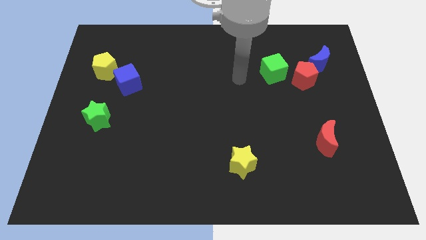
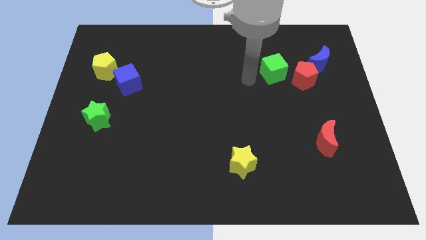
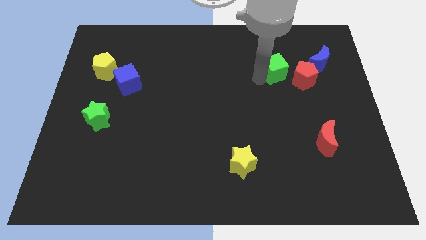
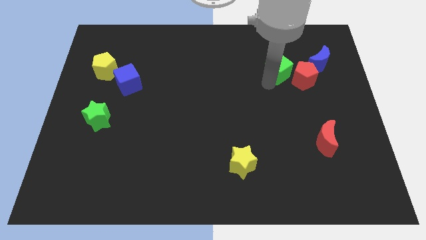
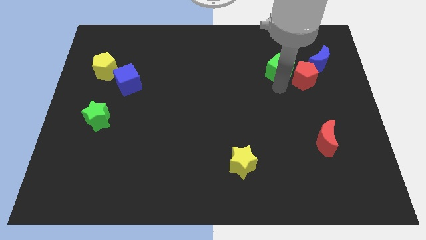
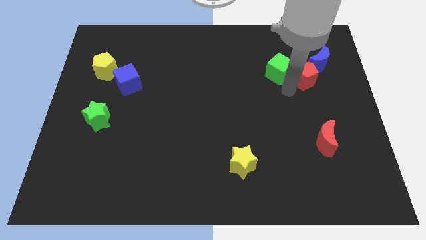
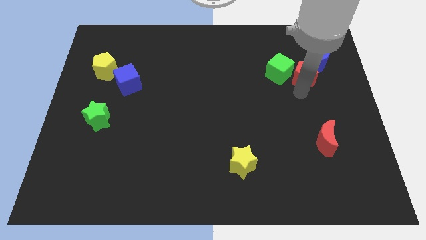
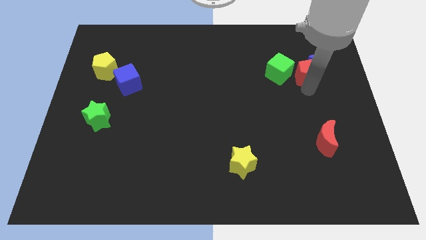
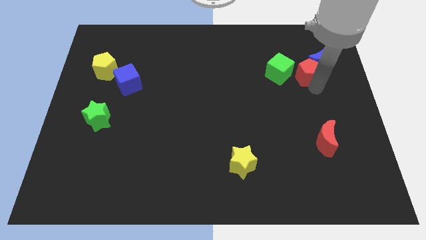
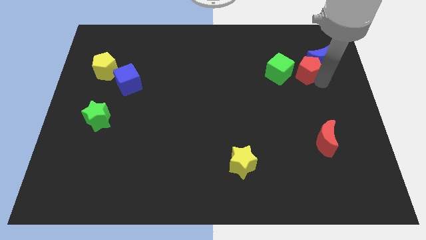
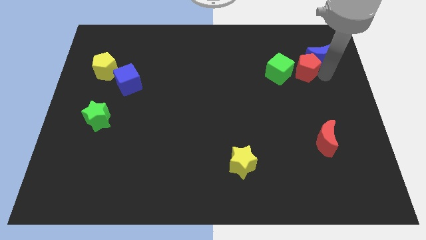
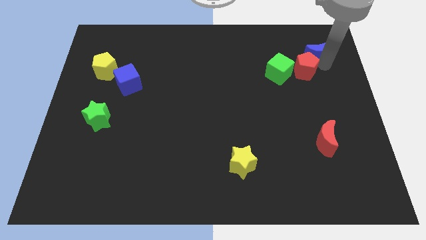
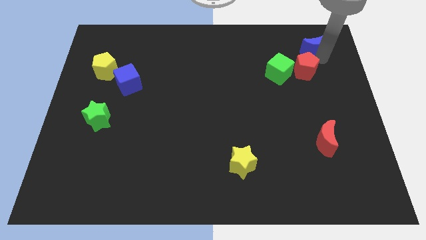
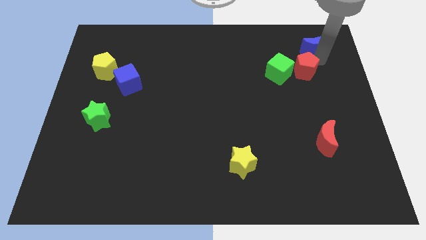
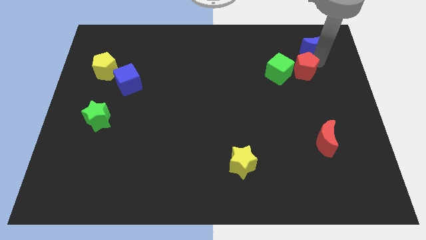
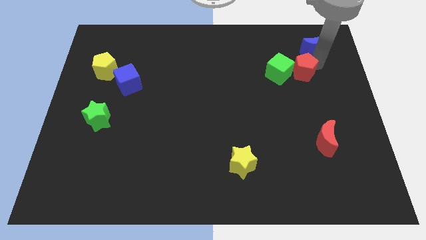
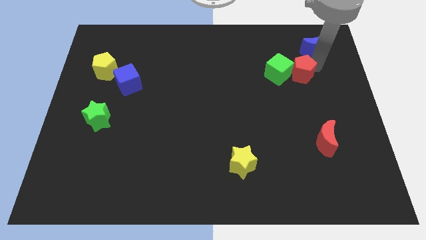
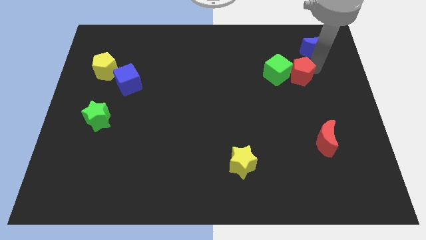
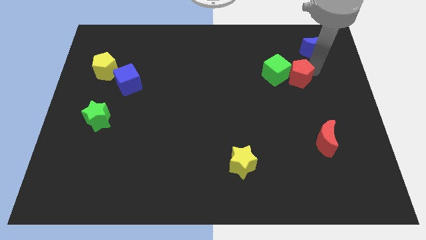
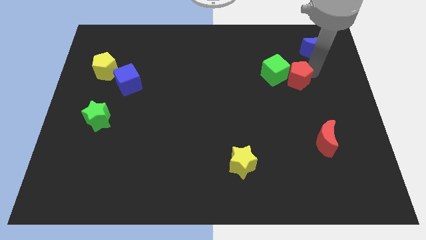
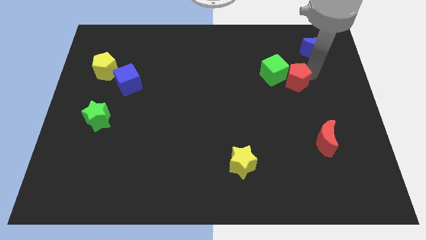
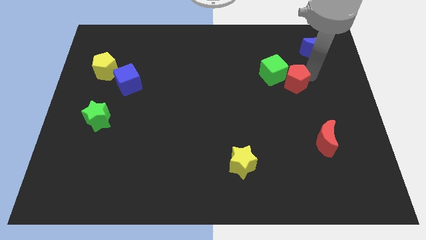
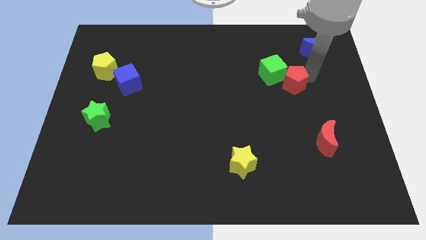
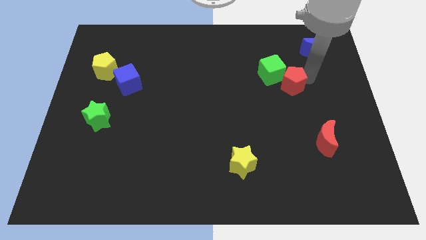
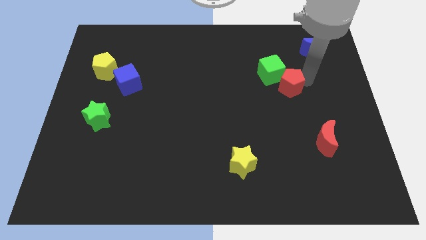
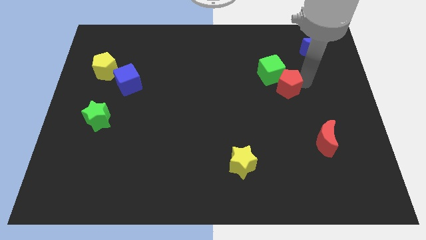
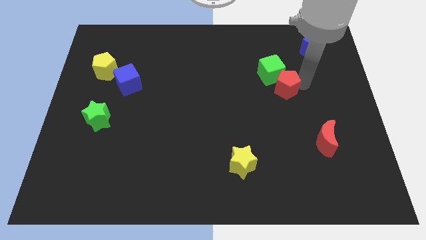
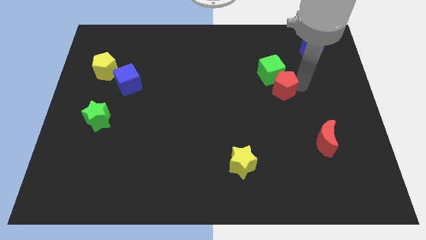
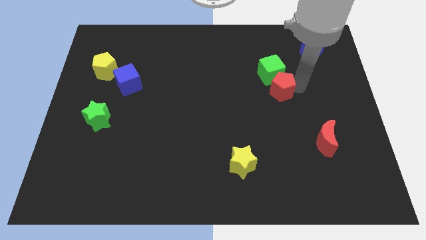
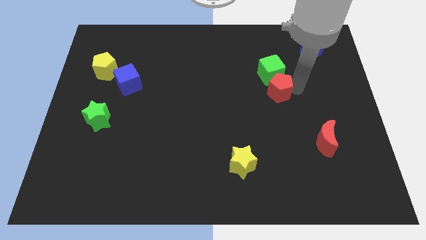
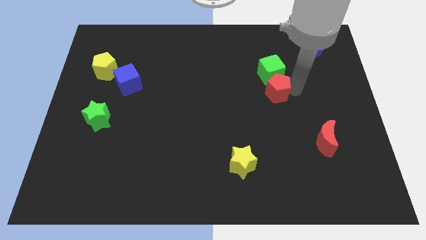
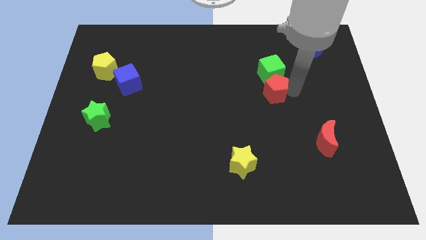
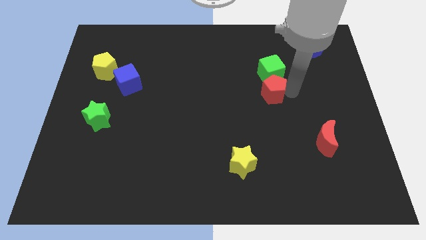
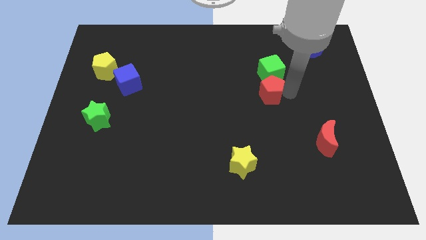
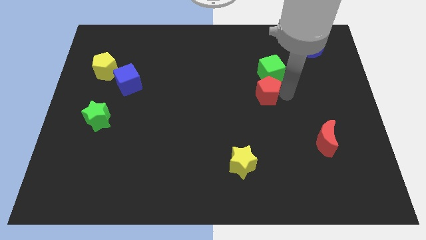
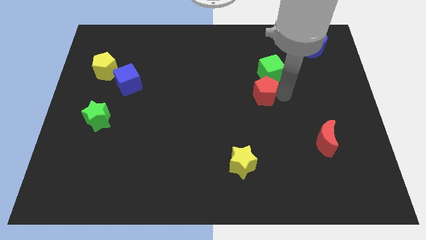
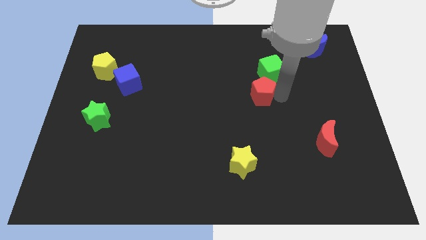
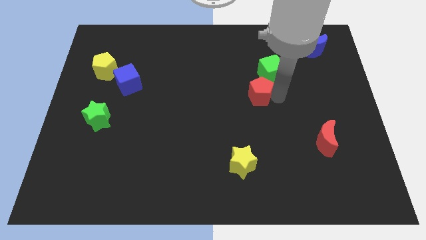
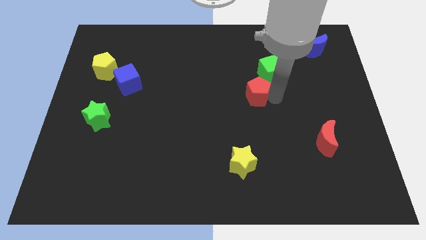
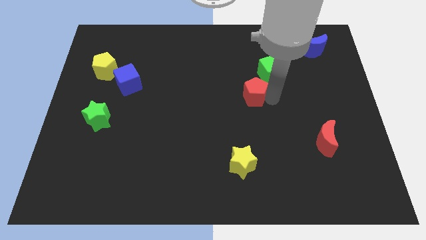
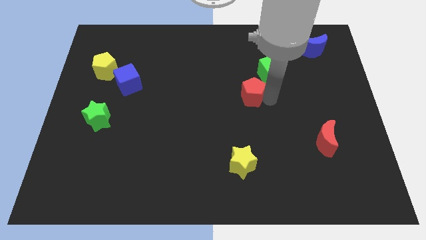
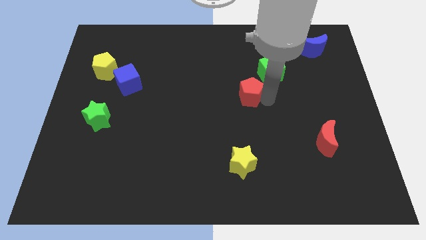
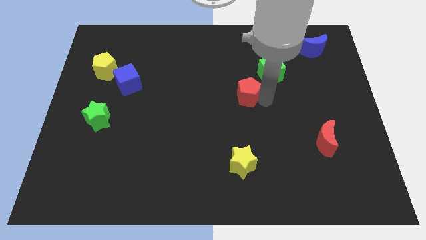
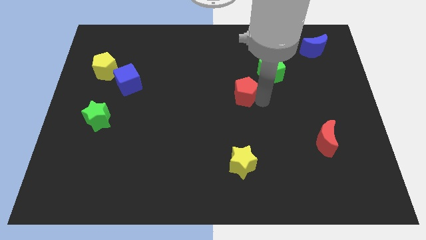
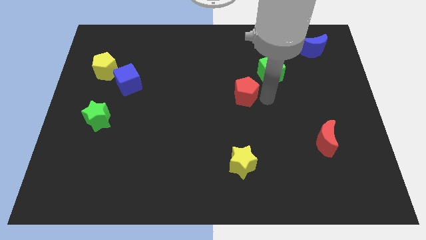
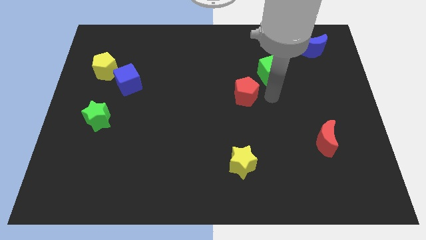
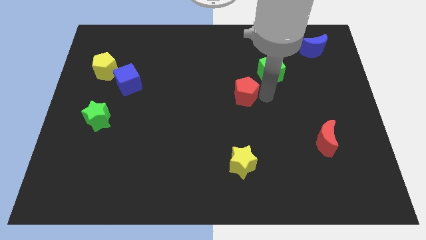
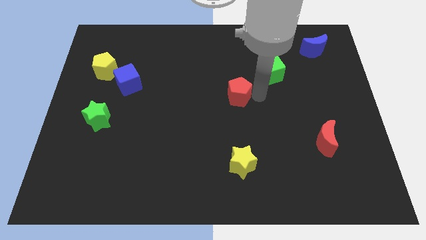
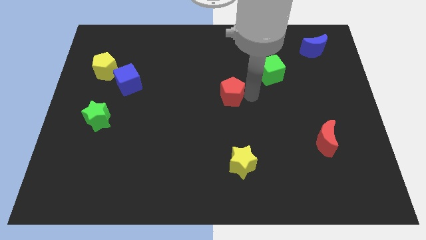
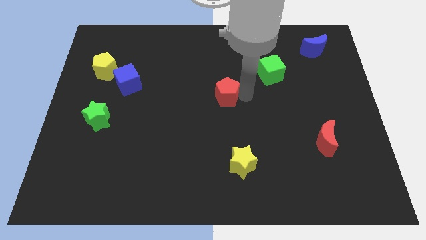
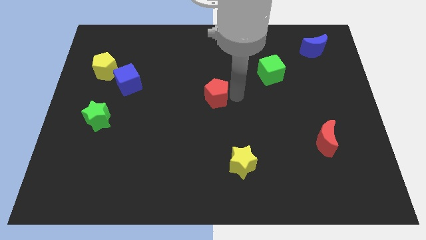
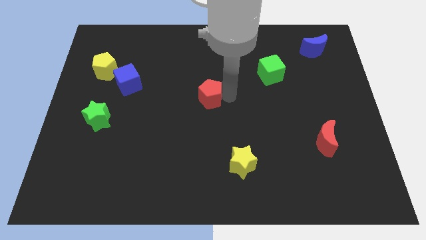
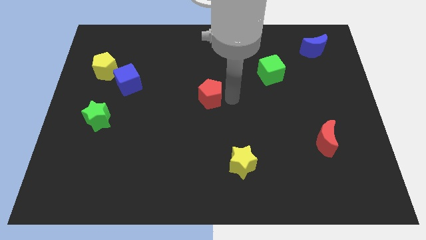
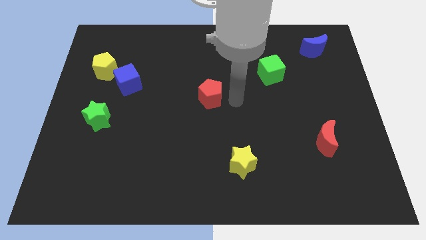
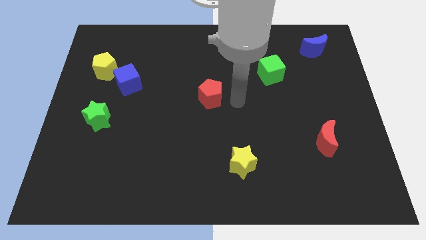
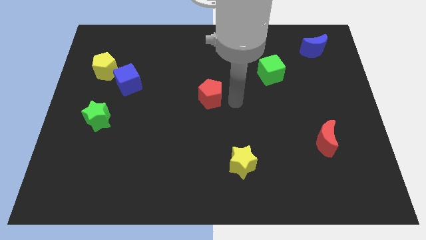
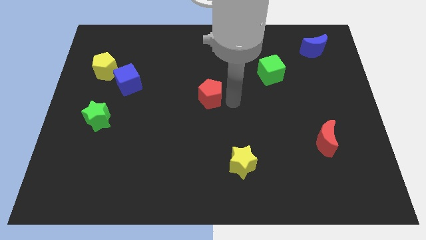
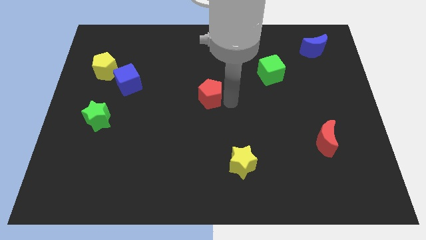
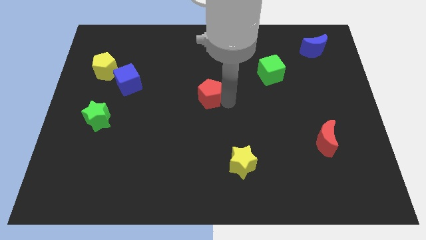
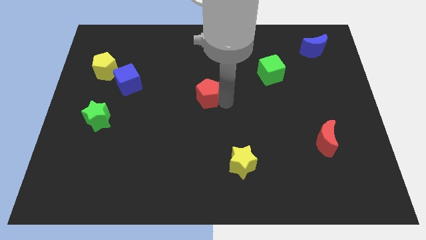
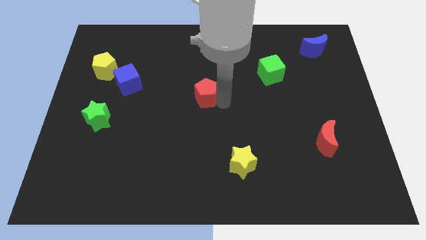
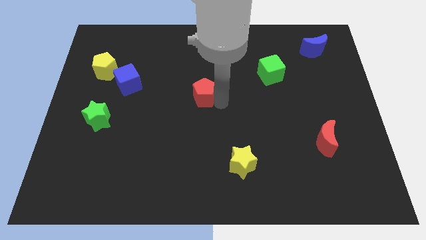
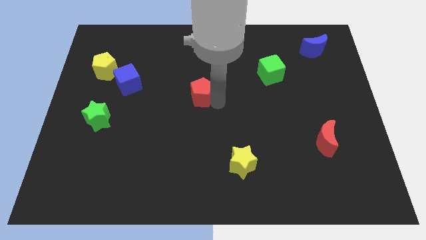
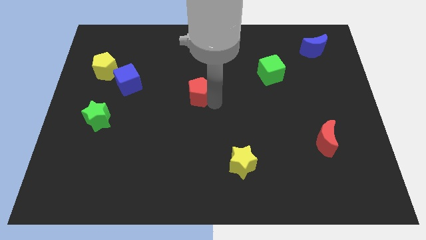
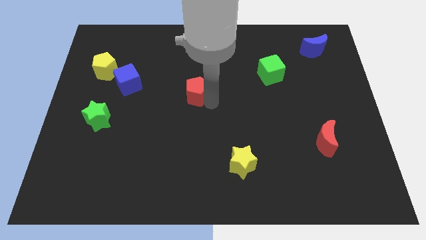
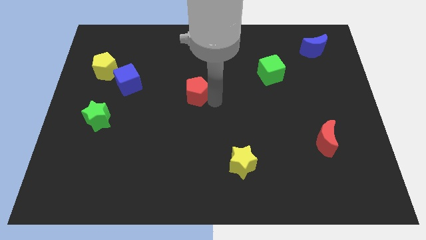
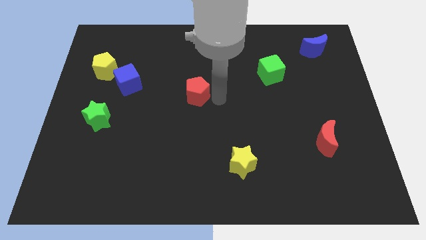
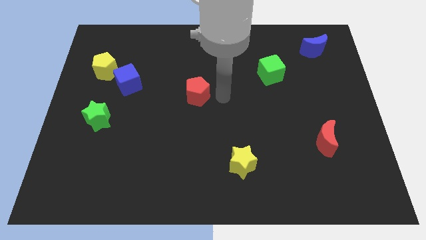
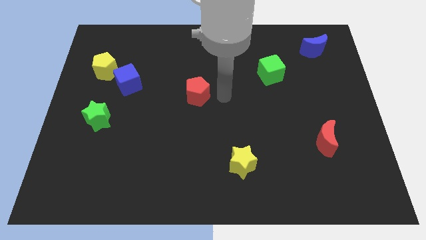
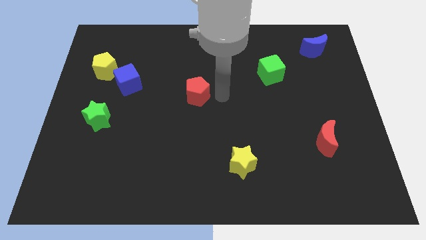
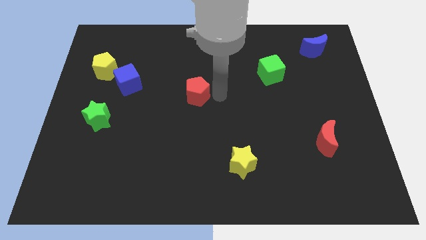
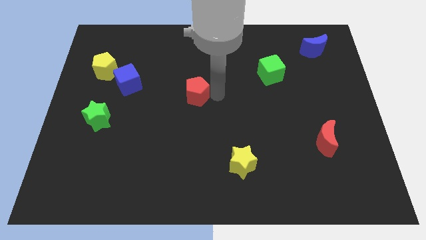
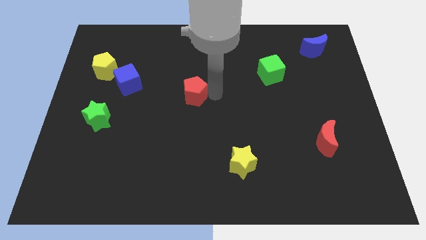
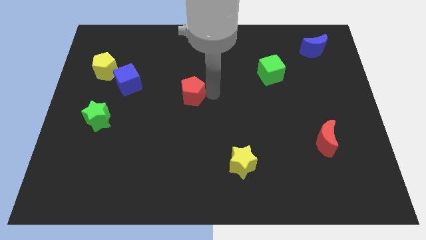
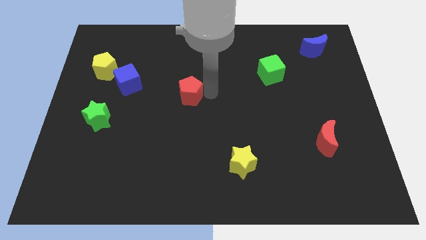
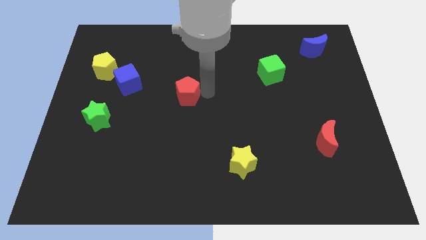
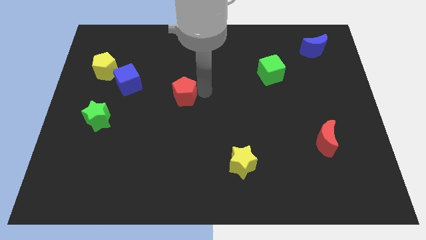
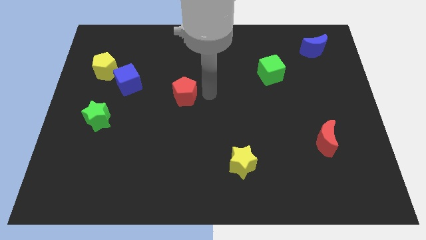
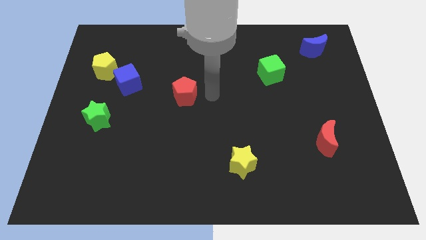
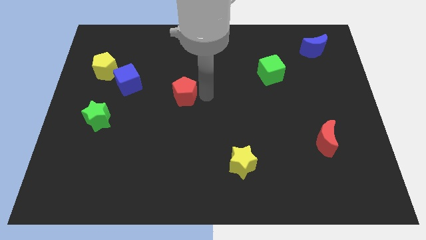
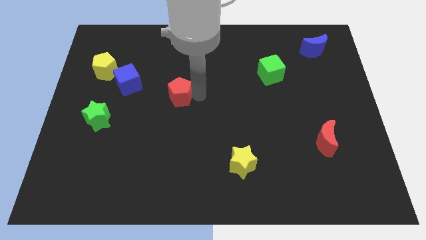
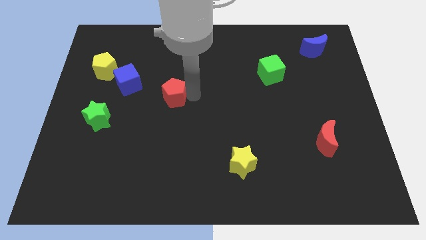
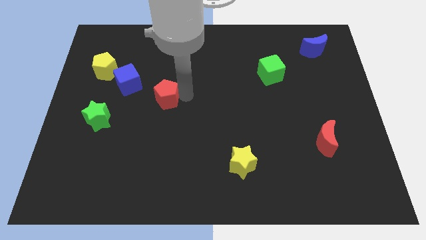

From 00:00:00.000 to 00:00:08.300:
move the red pentagon to the bottom right of the blue cube
